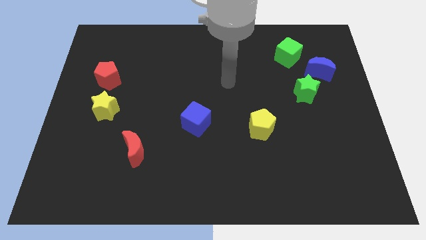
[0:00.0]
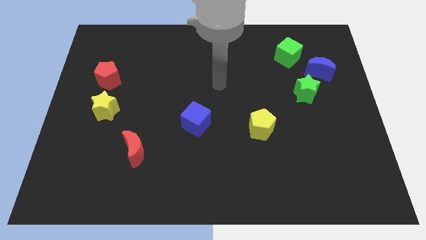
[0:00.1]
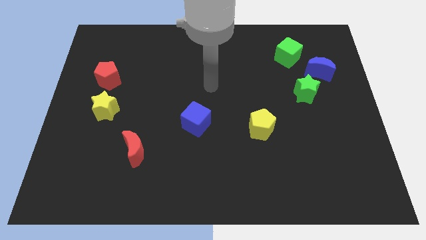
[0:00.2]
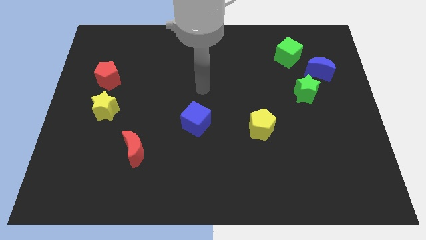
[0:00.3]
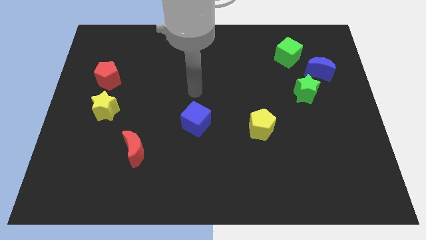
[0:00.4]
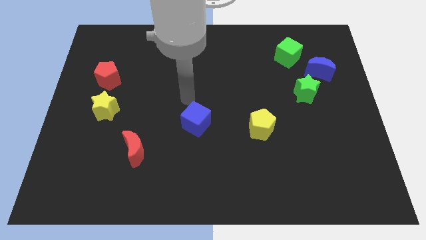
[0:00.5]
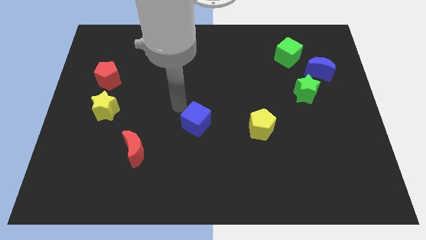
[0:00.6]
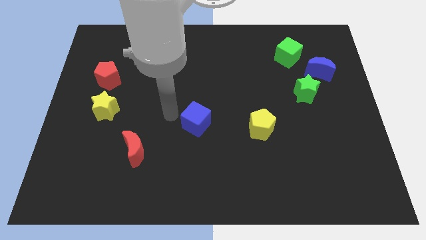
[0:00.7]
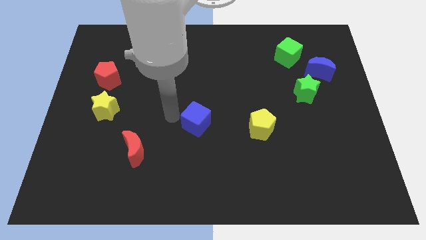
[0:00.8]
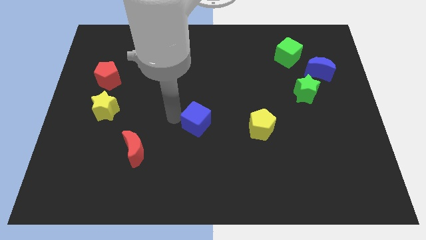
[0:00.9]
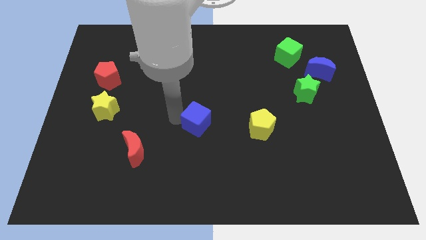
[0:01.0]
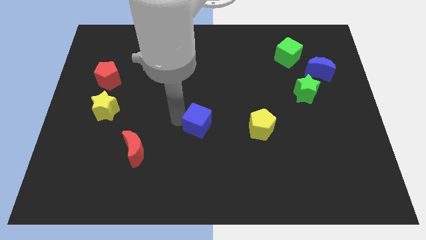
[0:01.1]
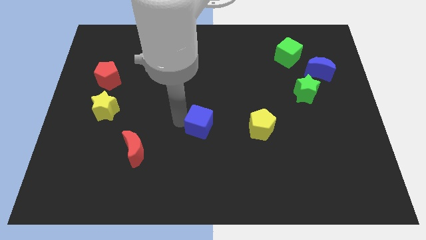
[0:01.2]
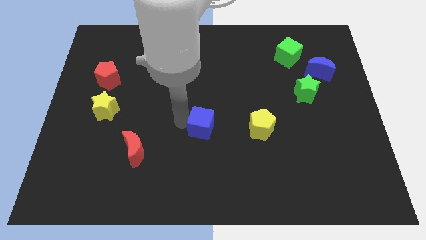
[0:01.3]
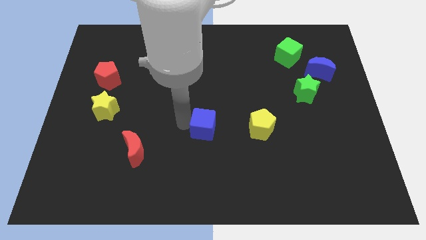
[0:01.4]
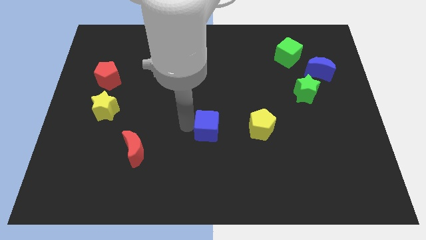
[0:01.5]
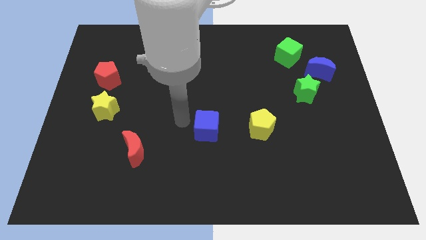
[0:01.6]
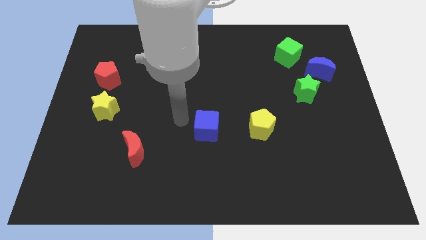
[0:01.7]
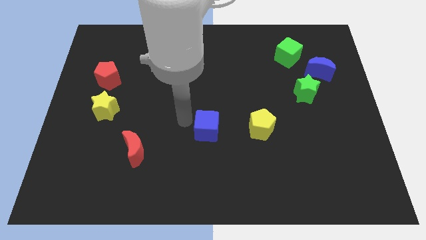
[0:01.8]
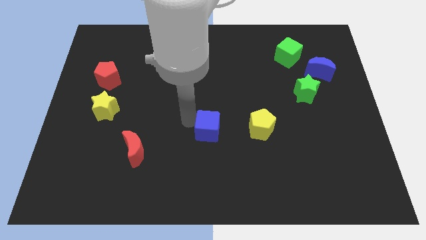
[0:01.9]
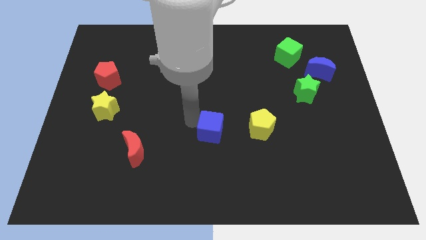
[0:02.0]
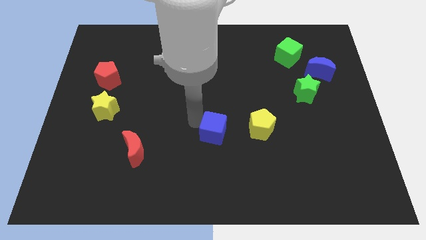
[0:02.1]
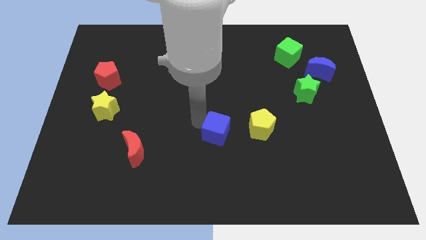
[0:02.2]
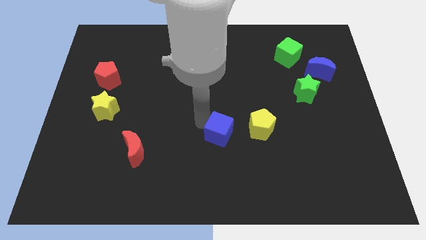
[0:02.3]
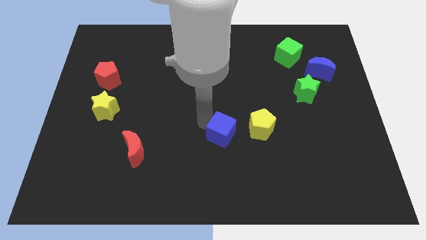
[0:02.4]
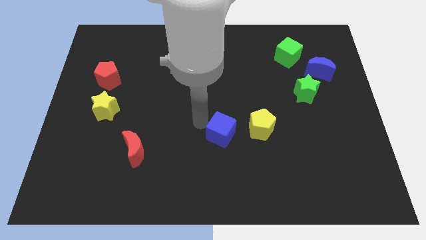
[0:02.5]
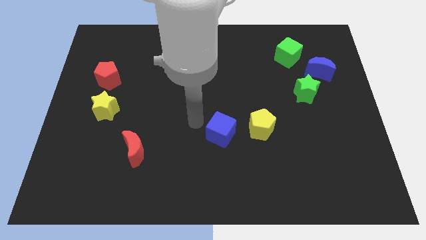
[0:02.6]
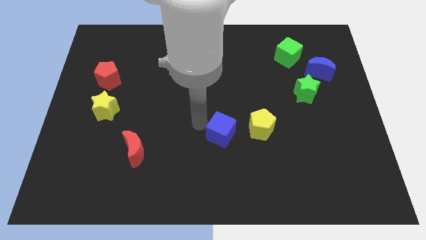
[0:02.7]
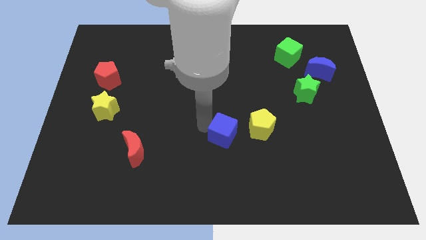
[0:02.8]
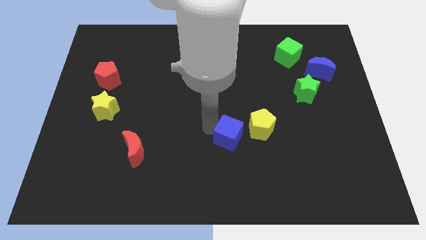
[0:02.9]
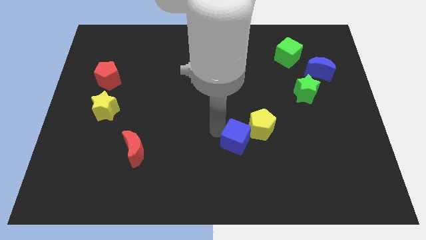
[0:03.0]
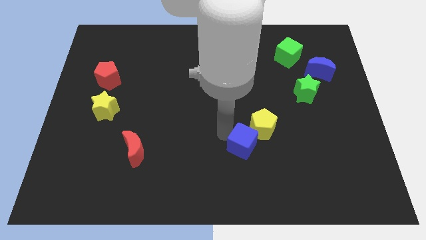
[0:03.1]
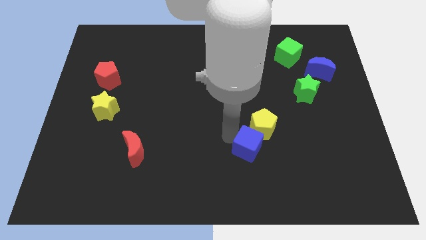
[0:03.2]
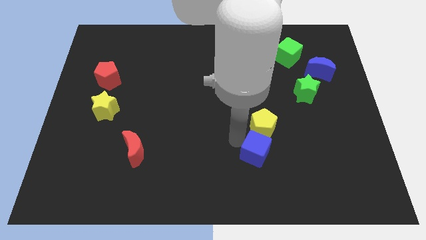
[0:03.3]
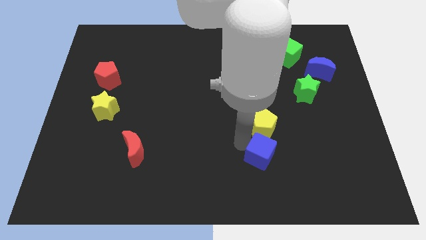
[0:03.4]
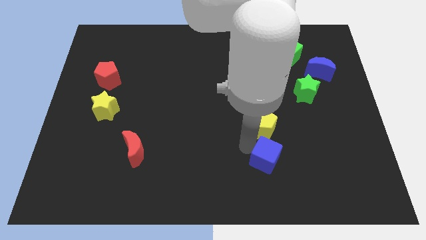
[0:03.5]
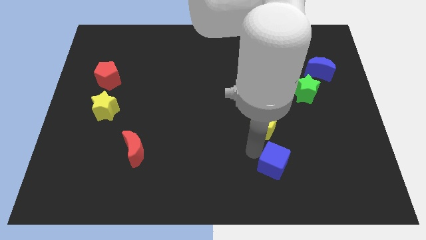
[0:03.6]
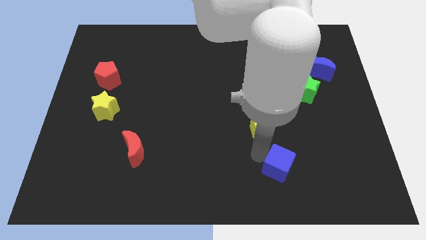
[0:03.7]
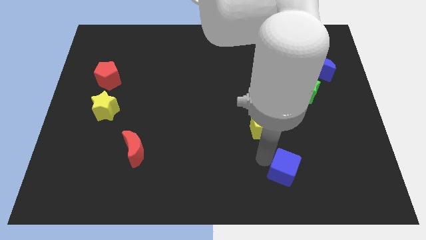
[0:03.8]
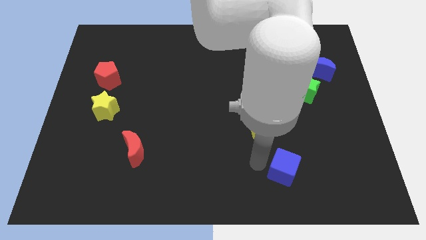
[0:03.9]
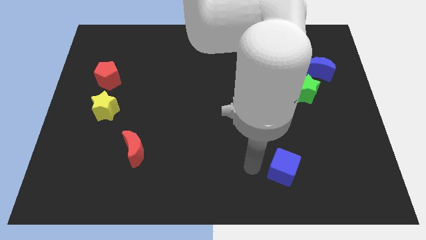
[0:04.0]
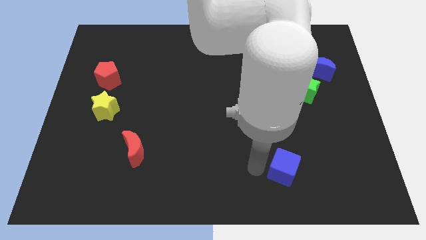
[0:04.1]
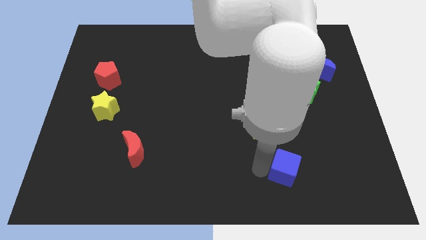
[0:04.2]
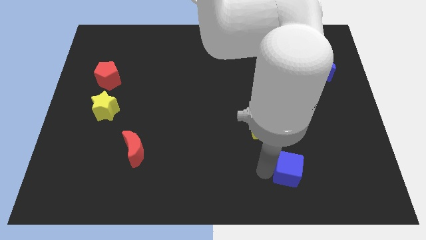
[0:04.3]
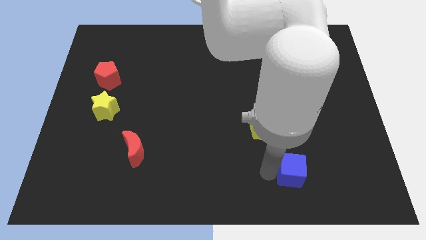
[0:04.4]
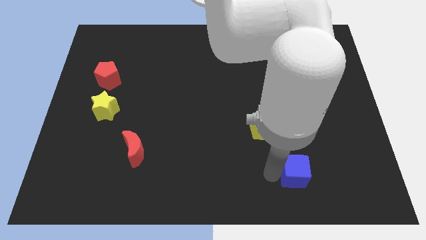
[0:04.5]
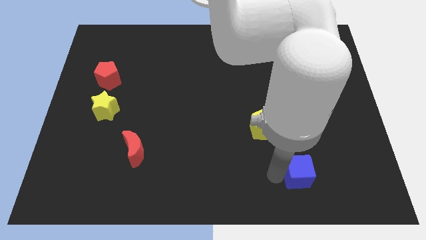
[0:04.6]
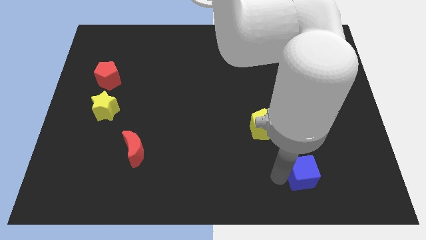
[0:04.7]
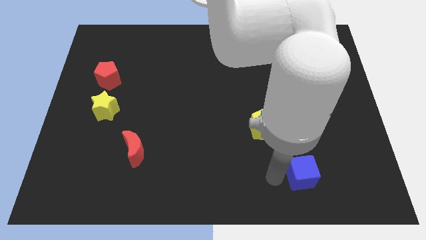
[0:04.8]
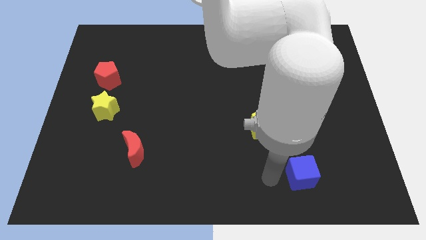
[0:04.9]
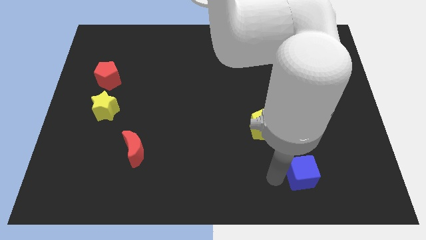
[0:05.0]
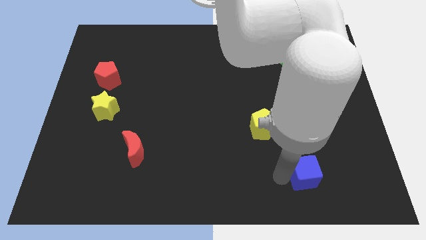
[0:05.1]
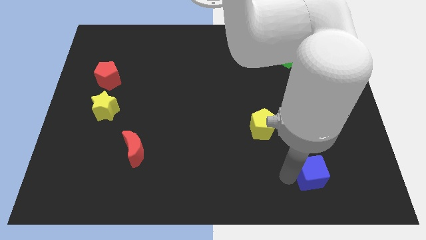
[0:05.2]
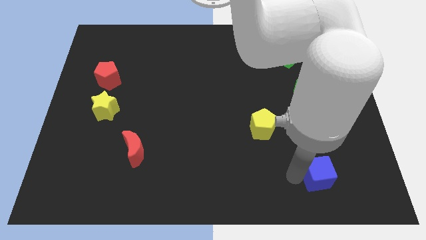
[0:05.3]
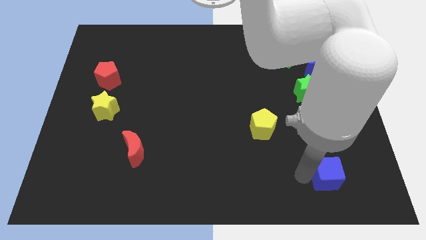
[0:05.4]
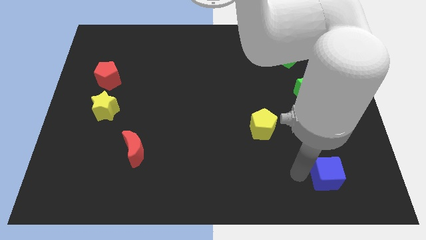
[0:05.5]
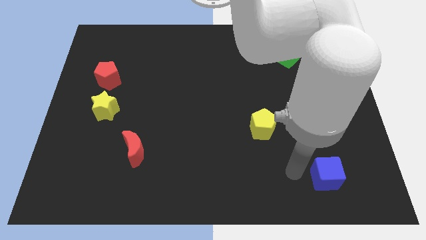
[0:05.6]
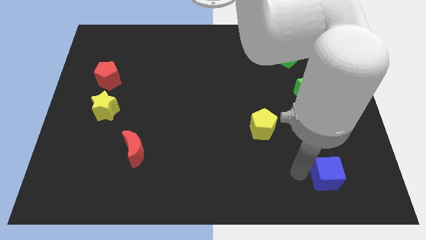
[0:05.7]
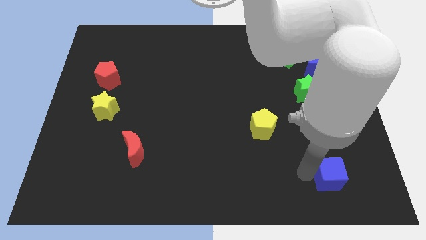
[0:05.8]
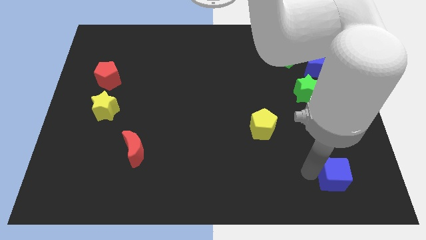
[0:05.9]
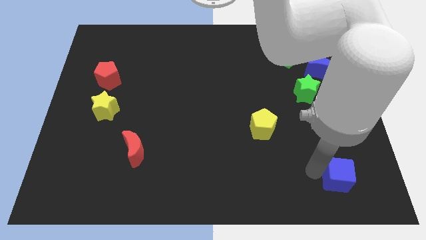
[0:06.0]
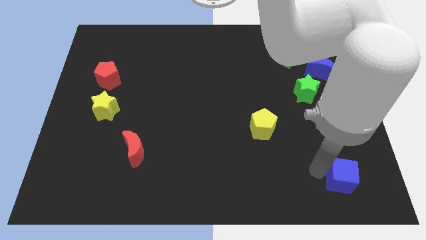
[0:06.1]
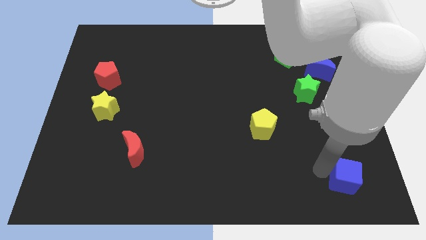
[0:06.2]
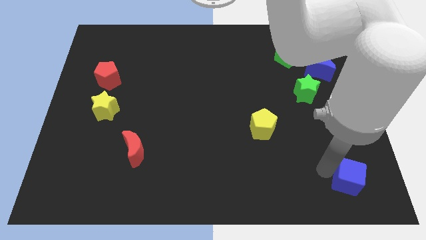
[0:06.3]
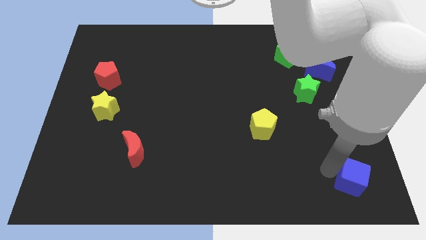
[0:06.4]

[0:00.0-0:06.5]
slide the blue cube to the lower right corner
